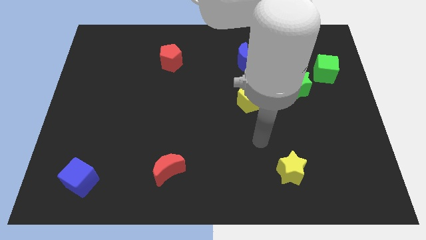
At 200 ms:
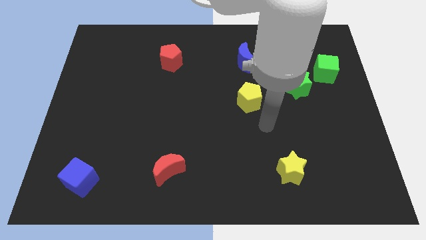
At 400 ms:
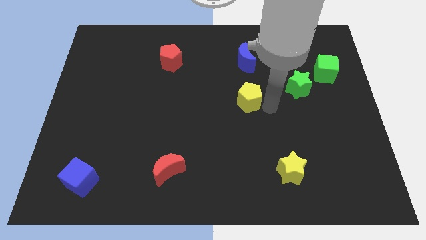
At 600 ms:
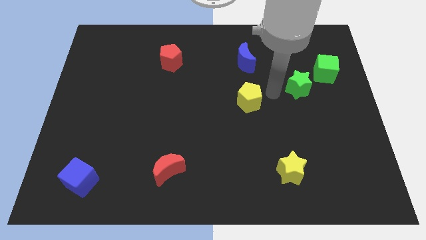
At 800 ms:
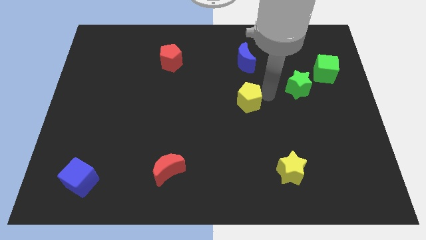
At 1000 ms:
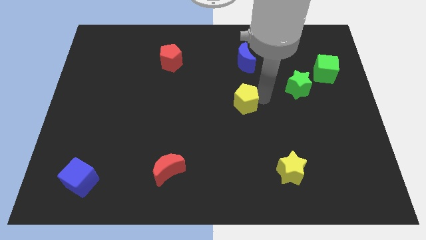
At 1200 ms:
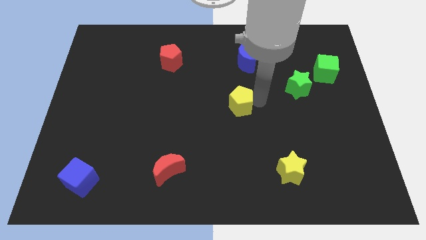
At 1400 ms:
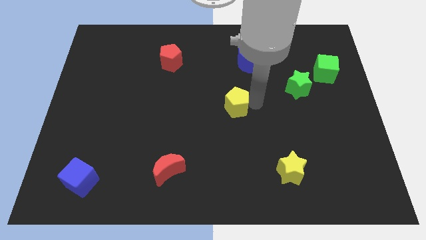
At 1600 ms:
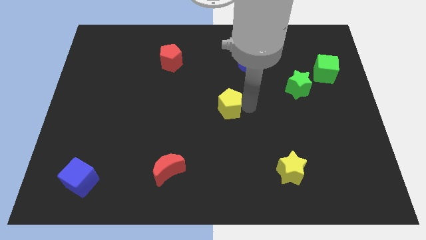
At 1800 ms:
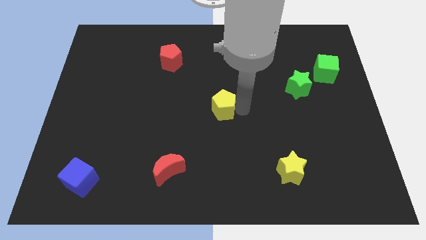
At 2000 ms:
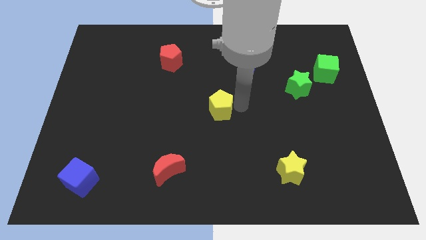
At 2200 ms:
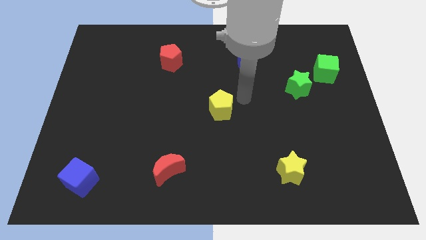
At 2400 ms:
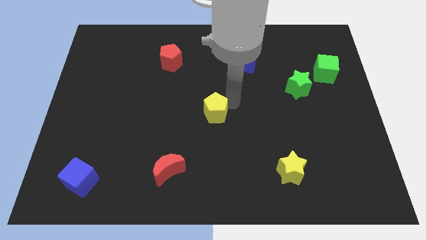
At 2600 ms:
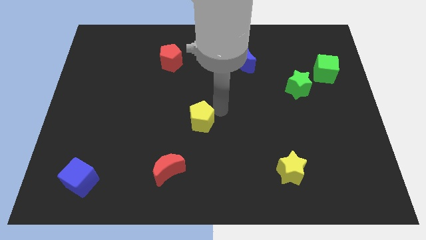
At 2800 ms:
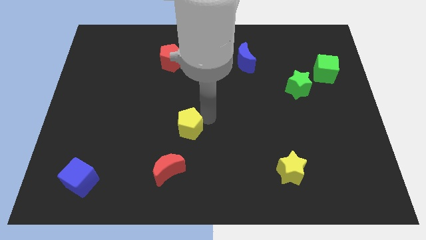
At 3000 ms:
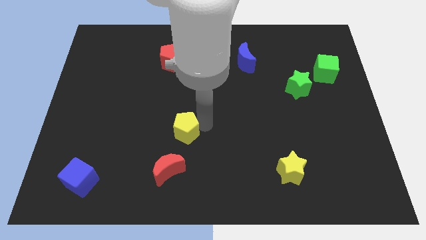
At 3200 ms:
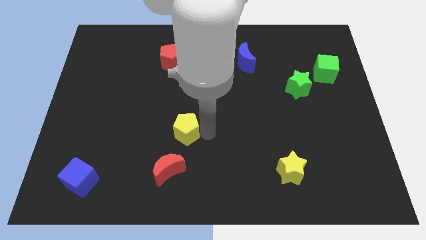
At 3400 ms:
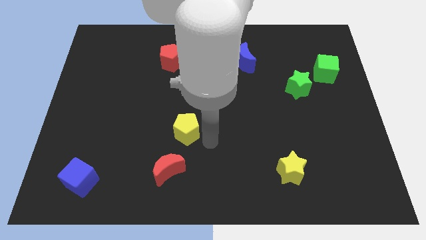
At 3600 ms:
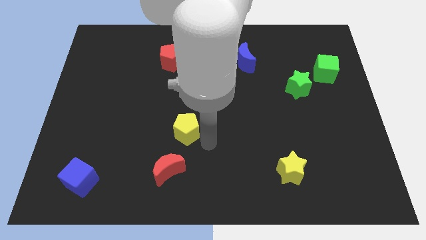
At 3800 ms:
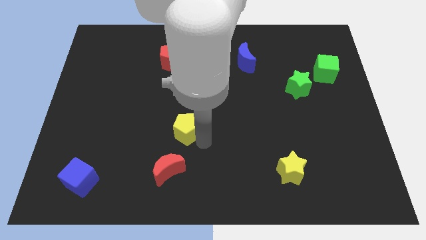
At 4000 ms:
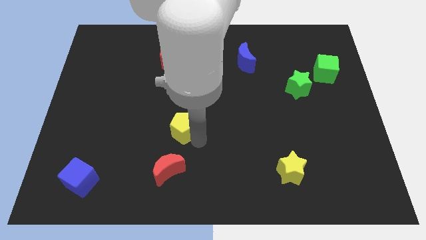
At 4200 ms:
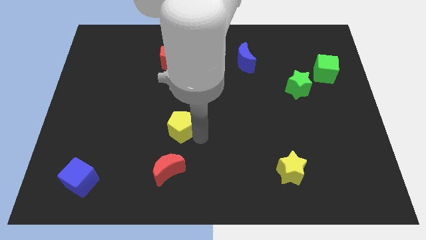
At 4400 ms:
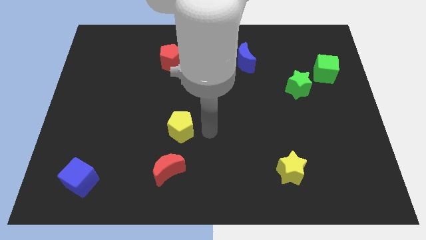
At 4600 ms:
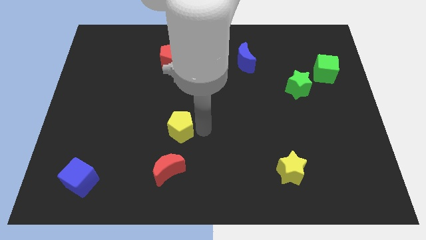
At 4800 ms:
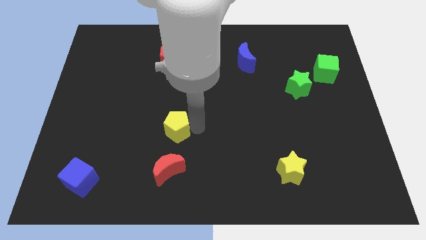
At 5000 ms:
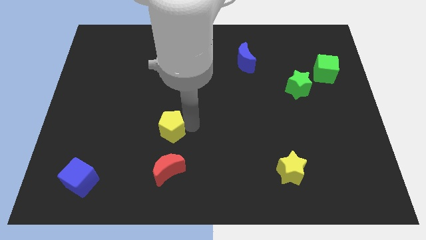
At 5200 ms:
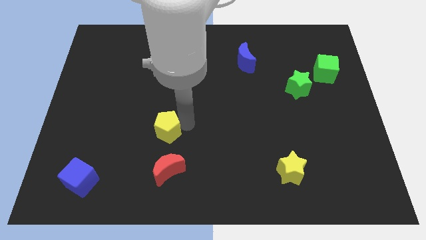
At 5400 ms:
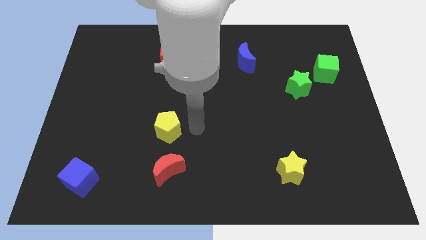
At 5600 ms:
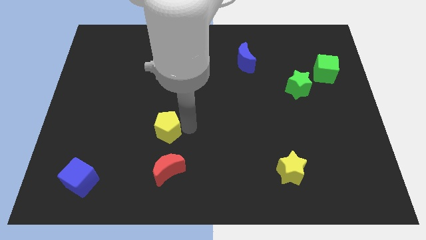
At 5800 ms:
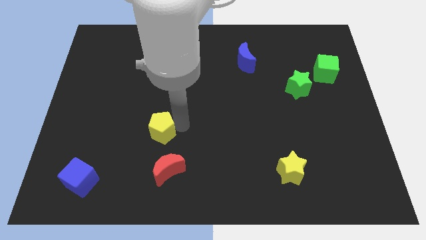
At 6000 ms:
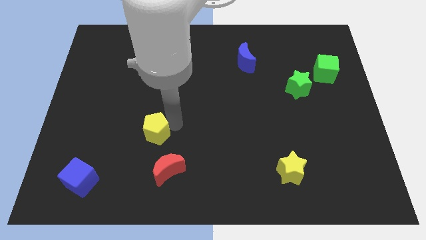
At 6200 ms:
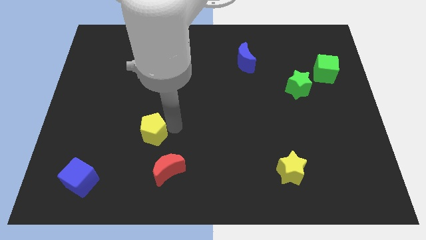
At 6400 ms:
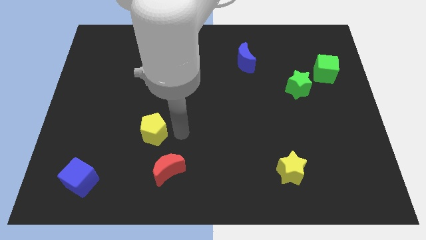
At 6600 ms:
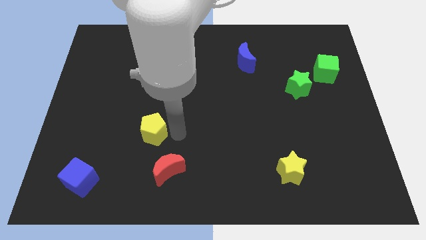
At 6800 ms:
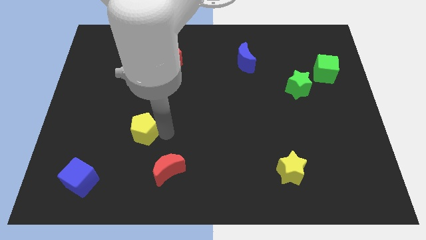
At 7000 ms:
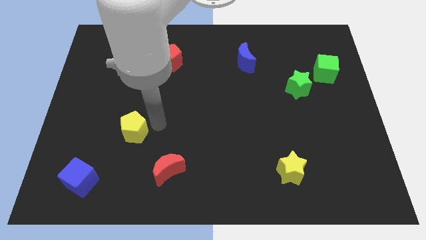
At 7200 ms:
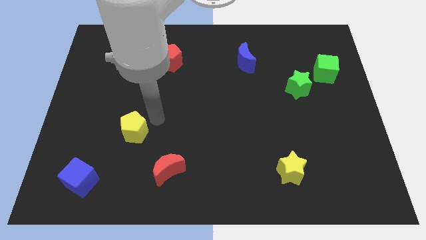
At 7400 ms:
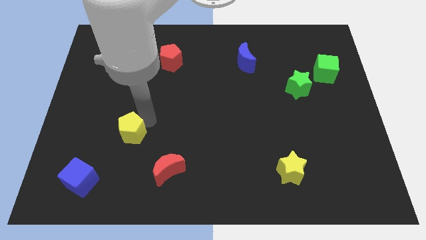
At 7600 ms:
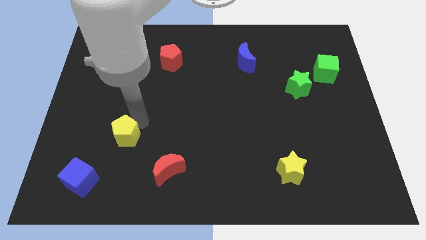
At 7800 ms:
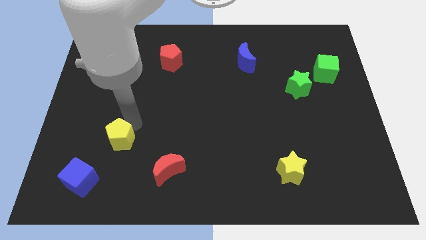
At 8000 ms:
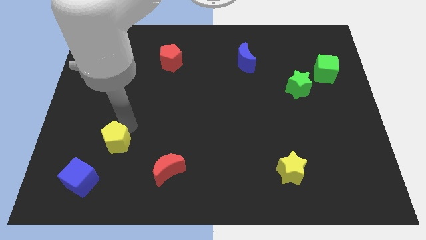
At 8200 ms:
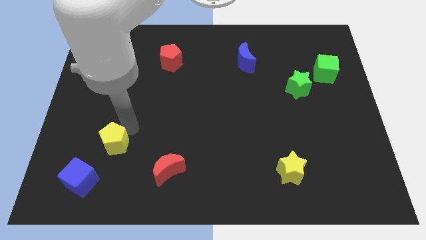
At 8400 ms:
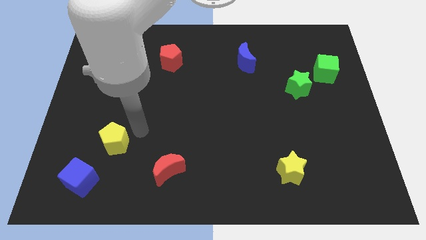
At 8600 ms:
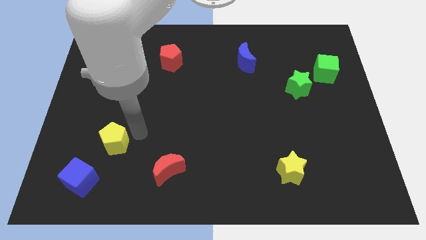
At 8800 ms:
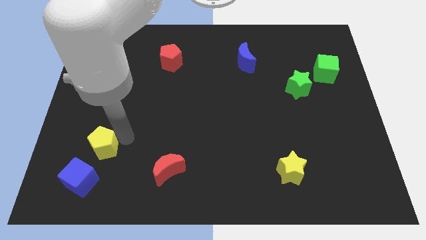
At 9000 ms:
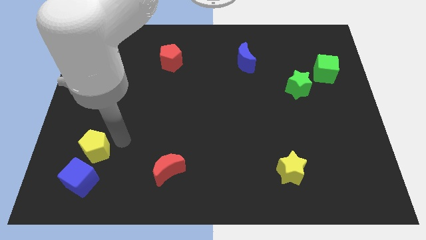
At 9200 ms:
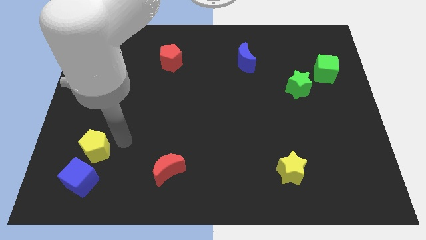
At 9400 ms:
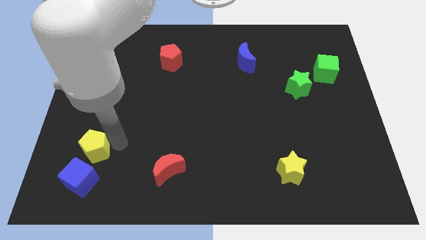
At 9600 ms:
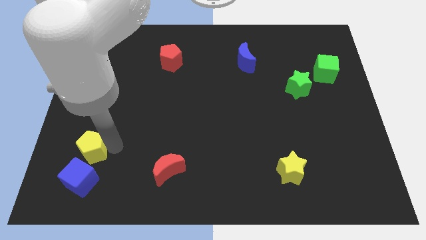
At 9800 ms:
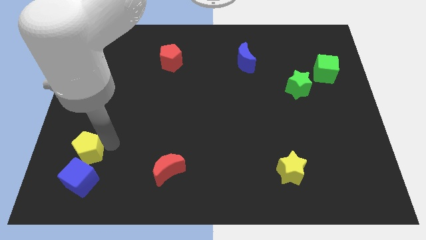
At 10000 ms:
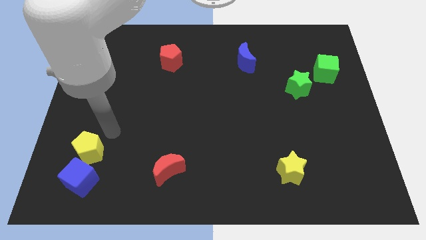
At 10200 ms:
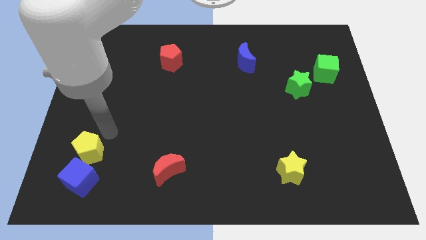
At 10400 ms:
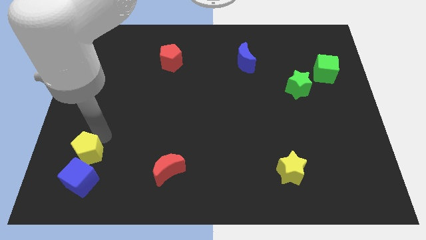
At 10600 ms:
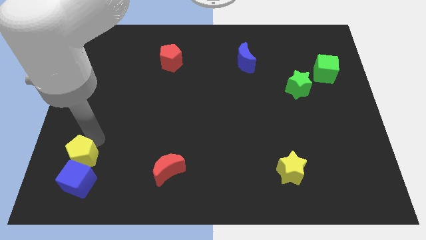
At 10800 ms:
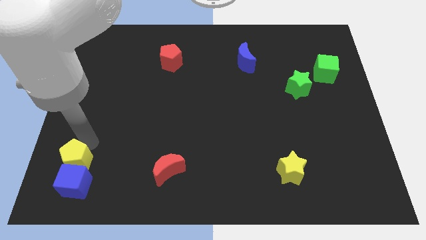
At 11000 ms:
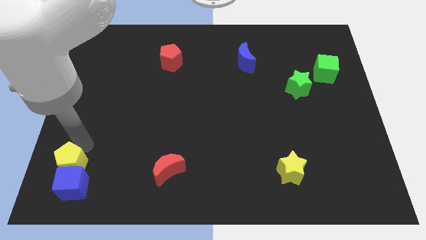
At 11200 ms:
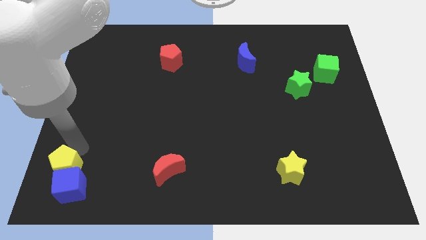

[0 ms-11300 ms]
push the yellow pentagon to the bottom left corner
